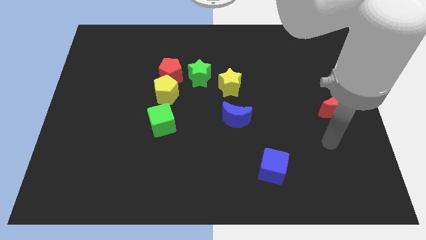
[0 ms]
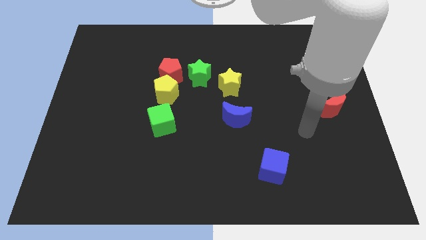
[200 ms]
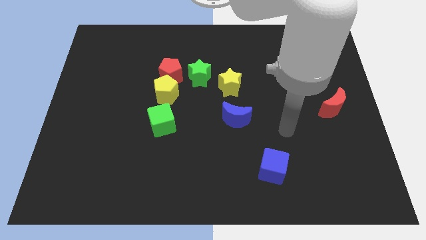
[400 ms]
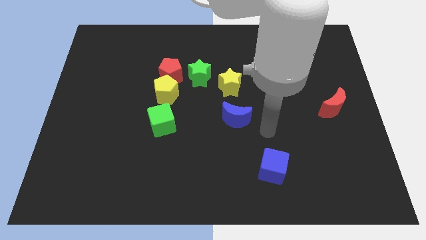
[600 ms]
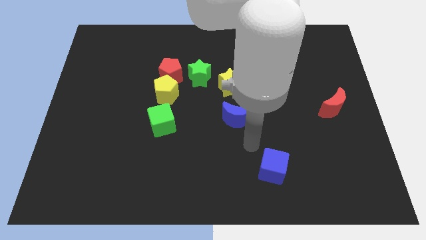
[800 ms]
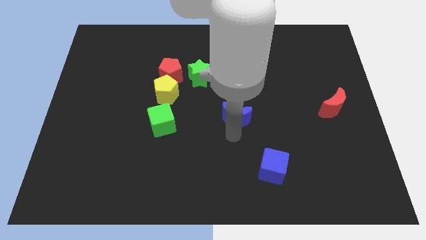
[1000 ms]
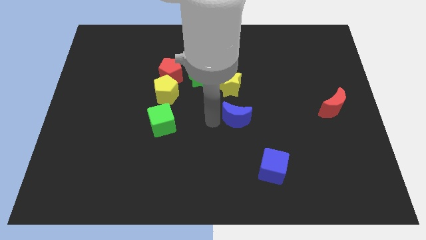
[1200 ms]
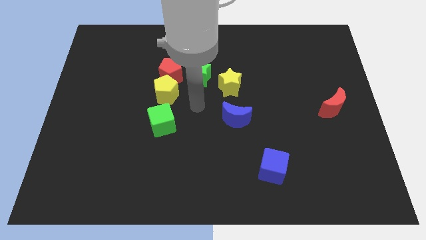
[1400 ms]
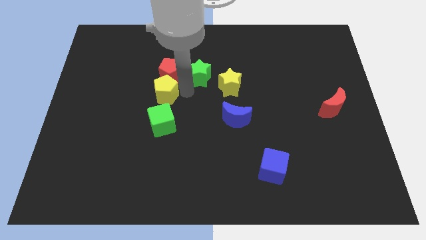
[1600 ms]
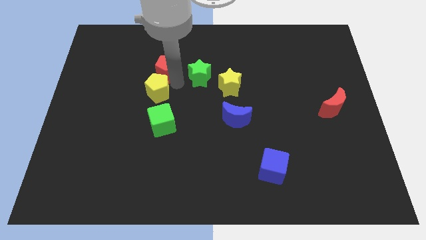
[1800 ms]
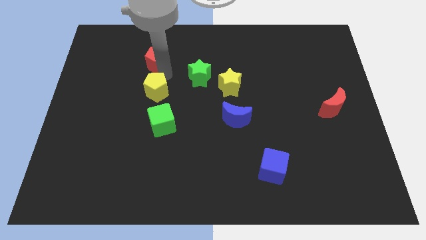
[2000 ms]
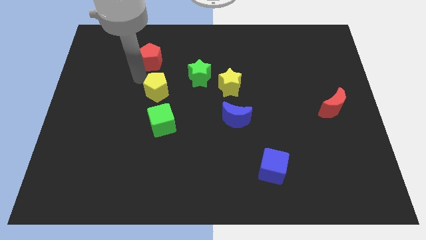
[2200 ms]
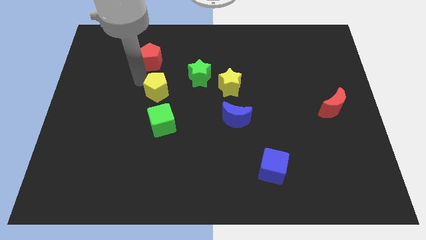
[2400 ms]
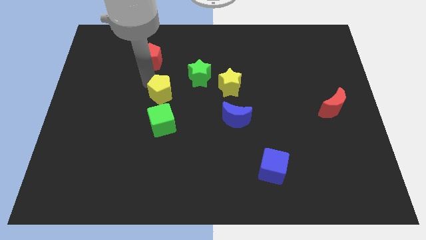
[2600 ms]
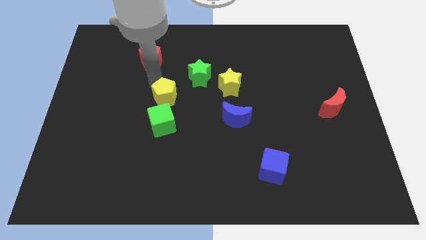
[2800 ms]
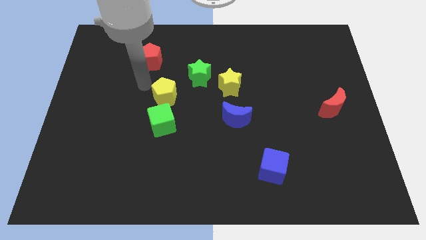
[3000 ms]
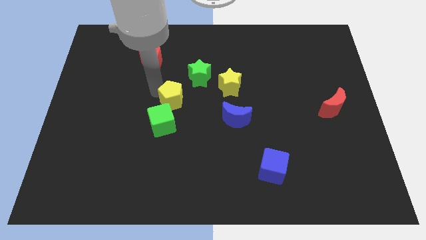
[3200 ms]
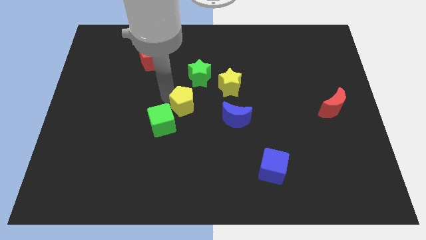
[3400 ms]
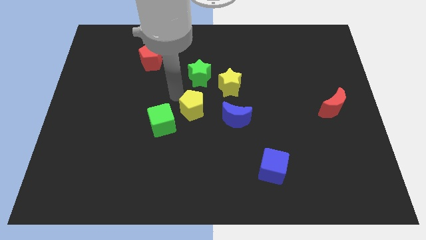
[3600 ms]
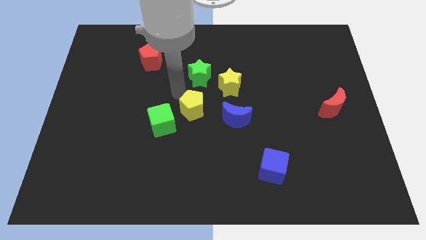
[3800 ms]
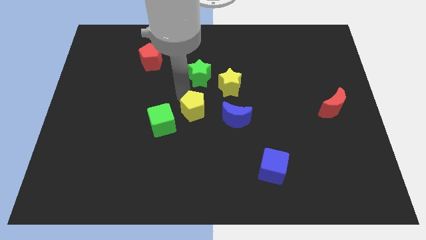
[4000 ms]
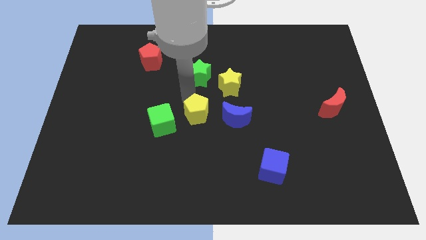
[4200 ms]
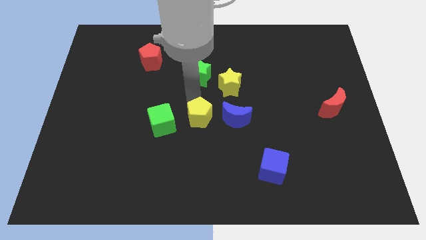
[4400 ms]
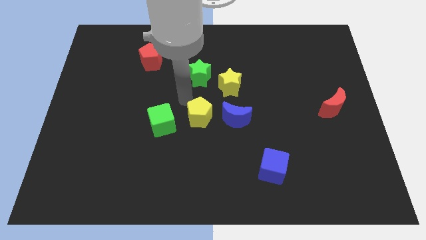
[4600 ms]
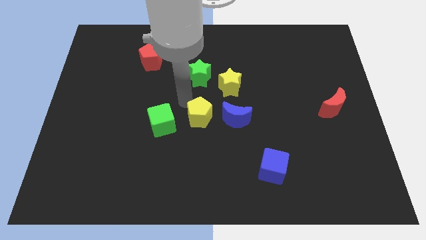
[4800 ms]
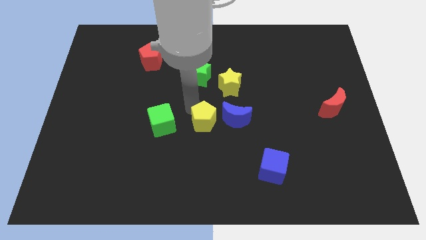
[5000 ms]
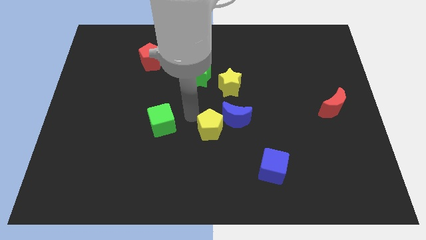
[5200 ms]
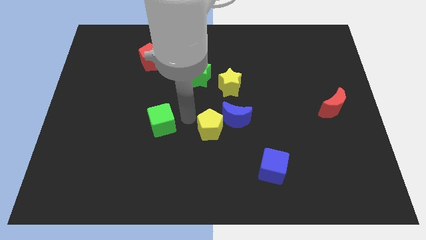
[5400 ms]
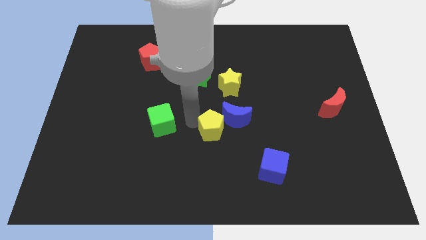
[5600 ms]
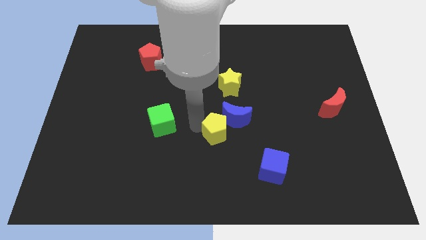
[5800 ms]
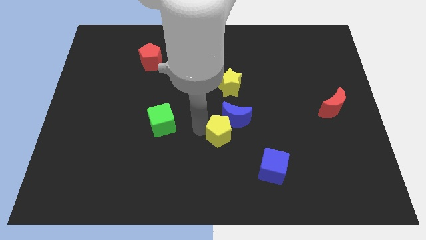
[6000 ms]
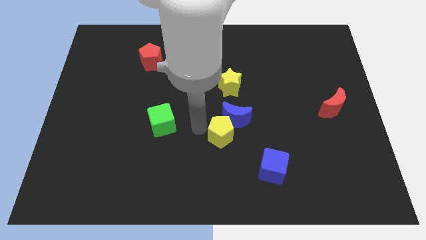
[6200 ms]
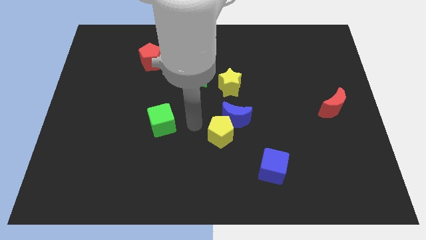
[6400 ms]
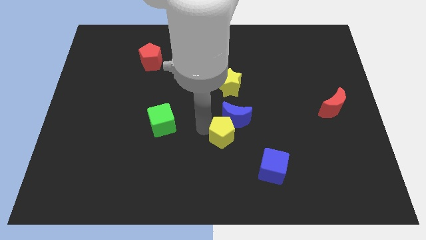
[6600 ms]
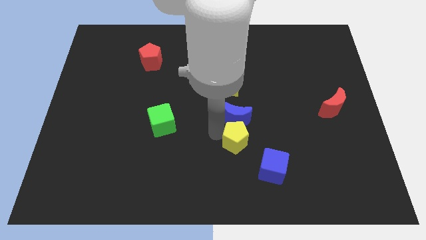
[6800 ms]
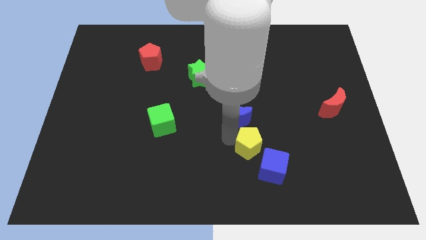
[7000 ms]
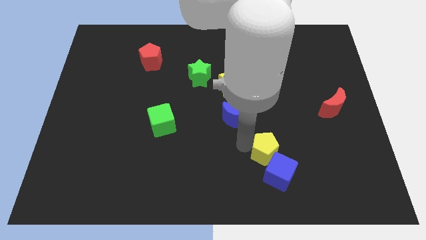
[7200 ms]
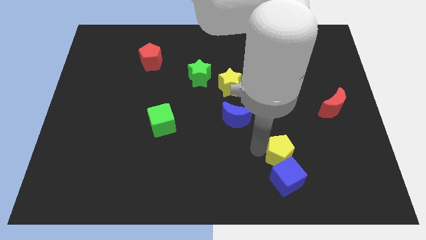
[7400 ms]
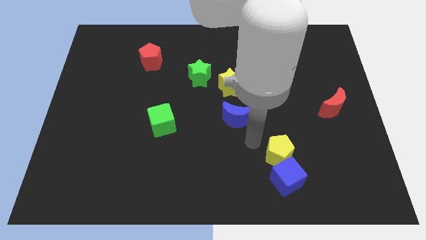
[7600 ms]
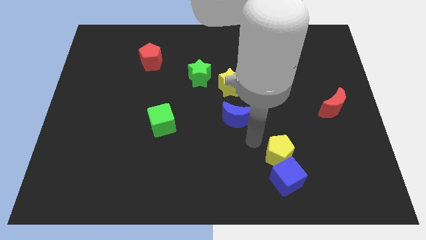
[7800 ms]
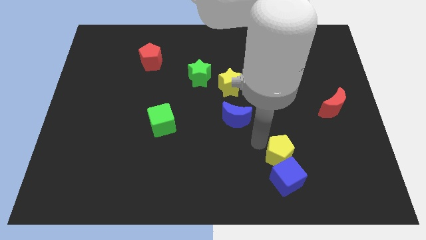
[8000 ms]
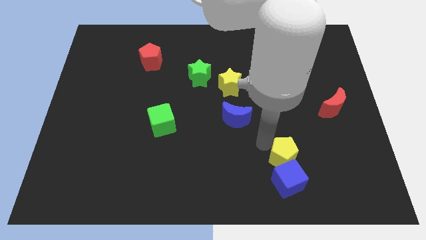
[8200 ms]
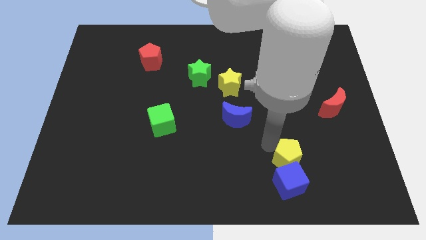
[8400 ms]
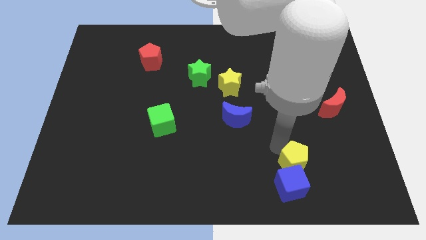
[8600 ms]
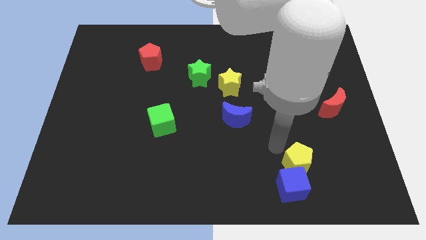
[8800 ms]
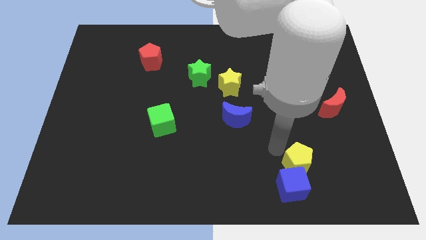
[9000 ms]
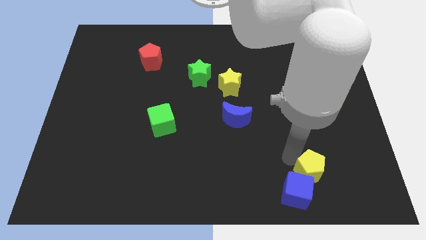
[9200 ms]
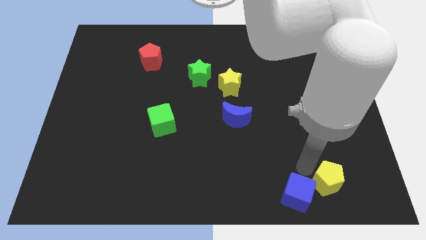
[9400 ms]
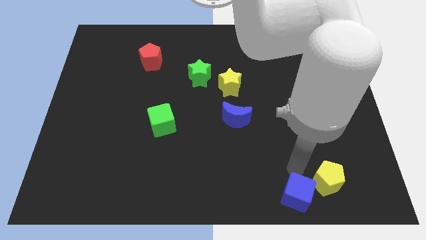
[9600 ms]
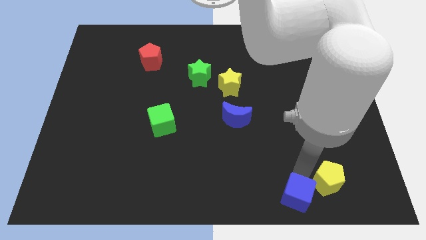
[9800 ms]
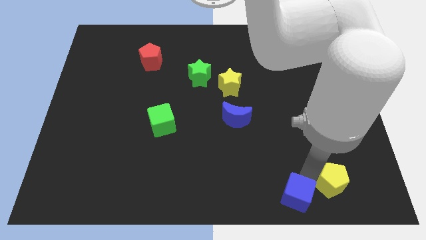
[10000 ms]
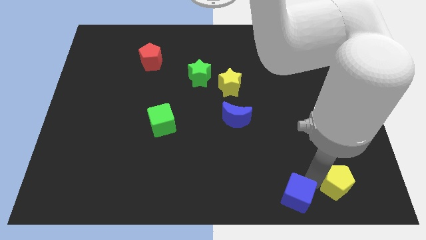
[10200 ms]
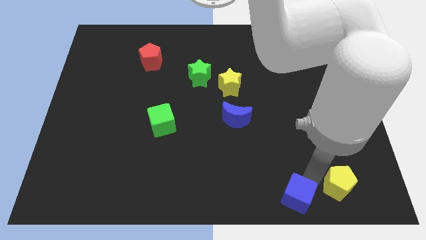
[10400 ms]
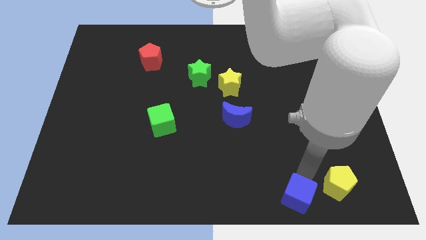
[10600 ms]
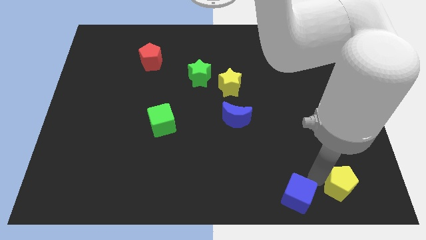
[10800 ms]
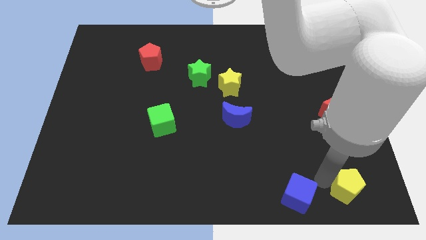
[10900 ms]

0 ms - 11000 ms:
slide the yellow pentagon to the bottom right

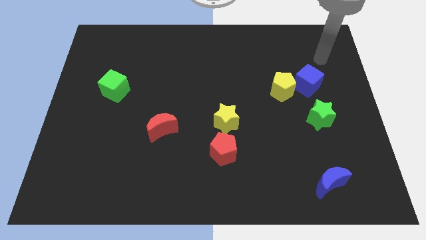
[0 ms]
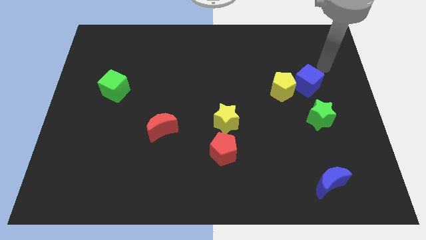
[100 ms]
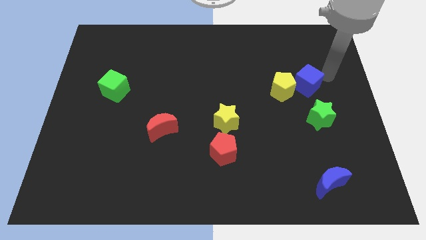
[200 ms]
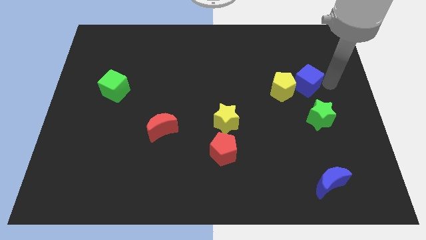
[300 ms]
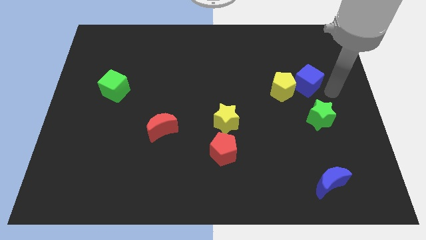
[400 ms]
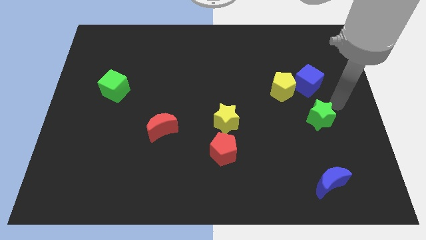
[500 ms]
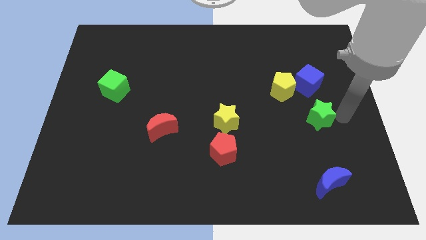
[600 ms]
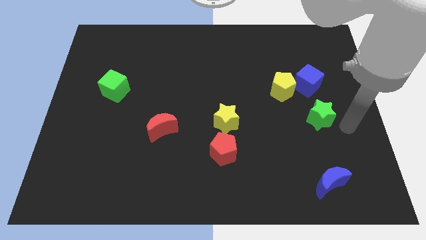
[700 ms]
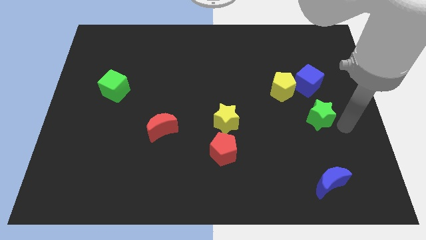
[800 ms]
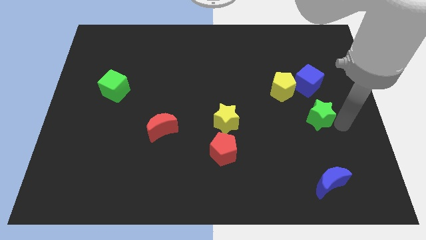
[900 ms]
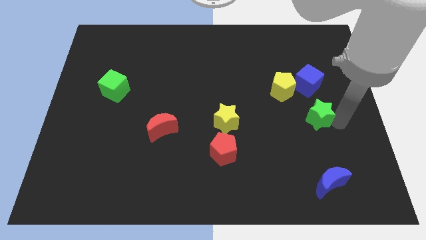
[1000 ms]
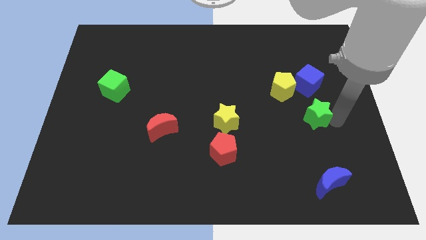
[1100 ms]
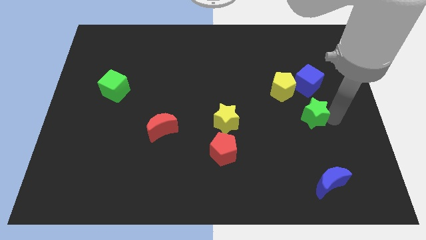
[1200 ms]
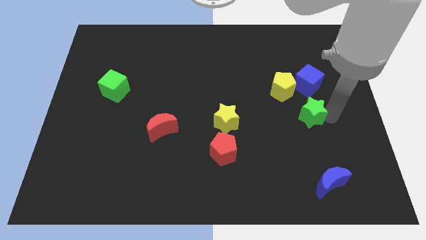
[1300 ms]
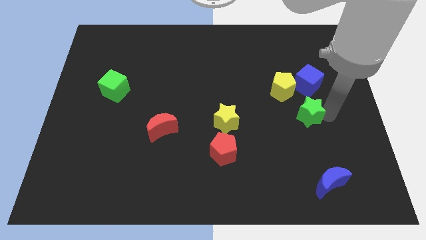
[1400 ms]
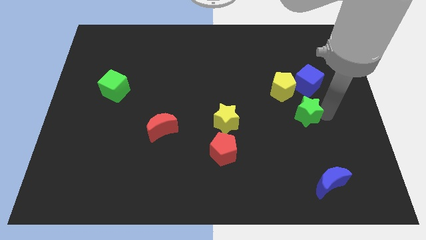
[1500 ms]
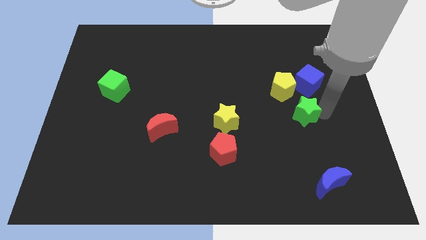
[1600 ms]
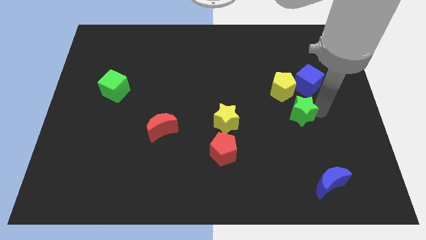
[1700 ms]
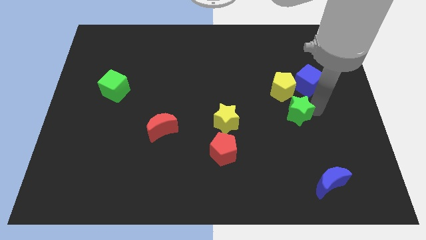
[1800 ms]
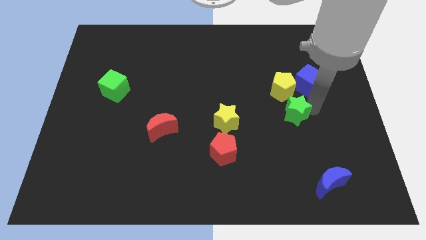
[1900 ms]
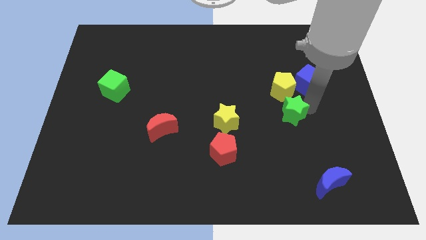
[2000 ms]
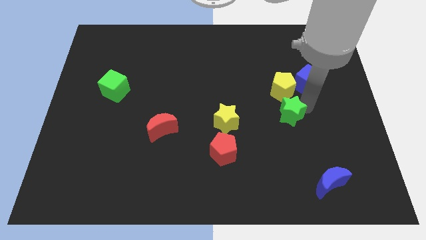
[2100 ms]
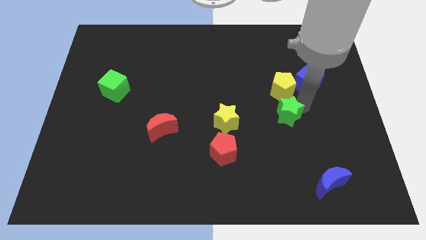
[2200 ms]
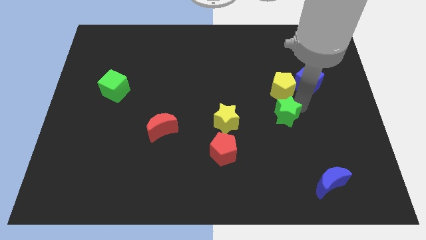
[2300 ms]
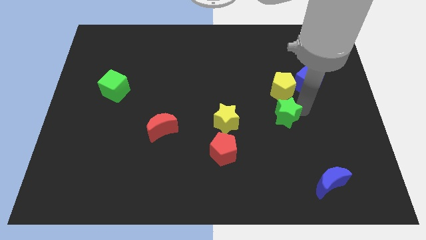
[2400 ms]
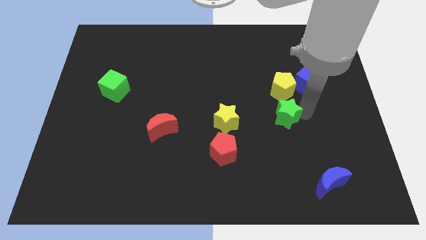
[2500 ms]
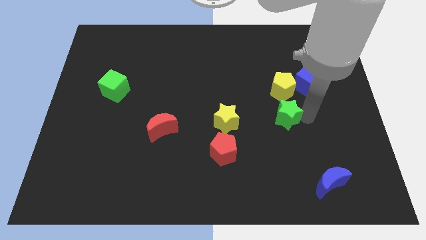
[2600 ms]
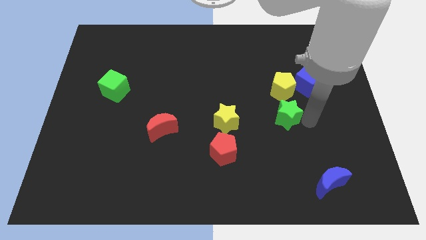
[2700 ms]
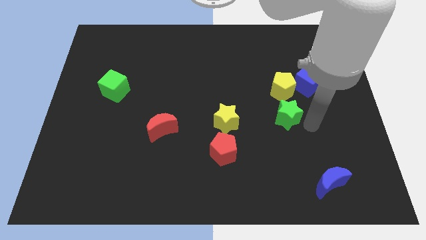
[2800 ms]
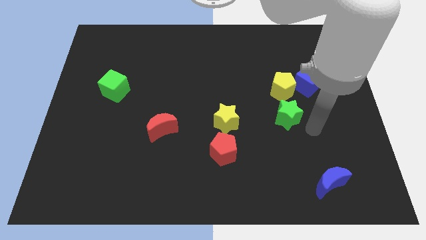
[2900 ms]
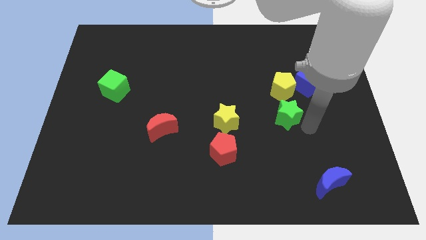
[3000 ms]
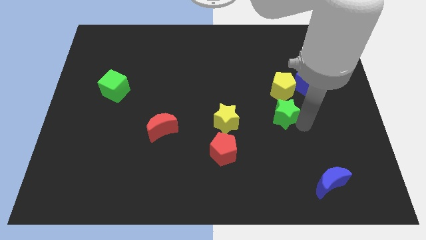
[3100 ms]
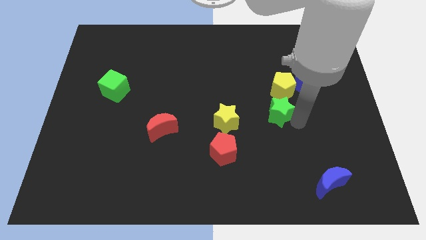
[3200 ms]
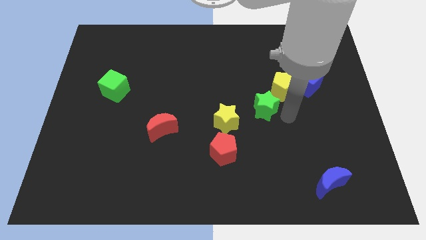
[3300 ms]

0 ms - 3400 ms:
put the green star to the middle
